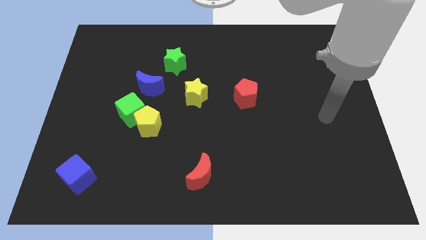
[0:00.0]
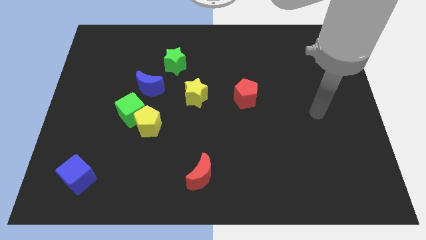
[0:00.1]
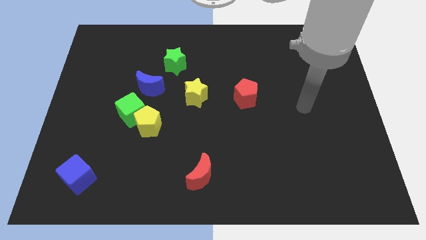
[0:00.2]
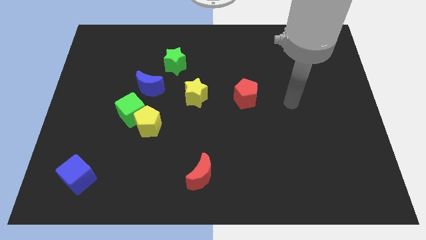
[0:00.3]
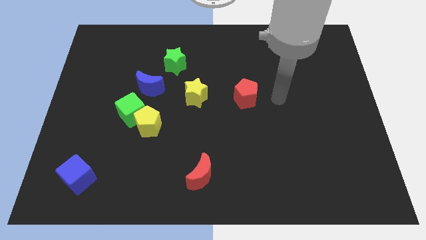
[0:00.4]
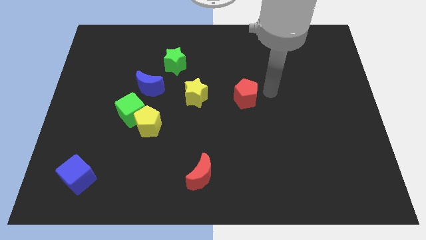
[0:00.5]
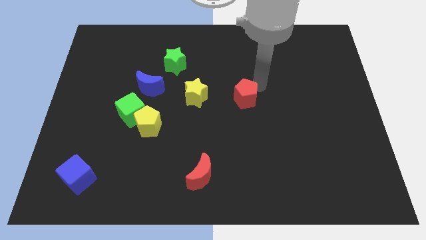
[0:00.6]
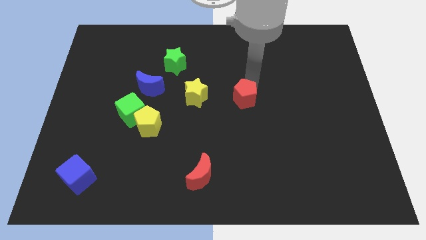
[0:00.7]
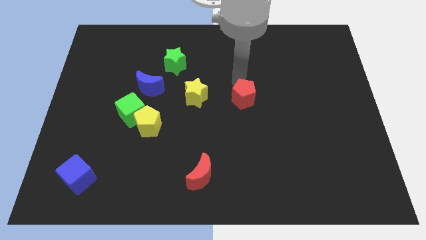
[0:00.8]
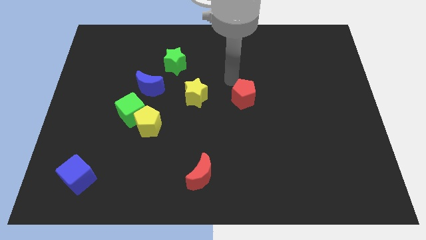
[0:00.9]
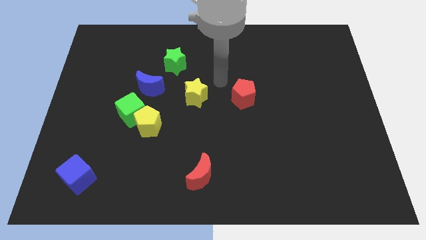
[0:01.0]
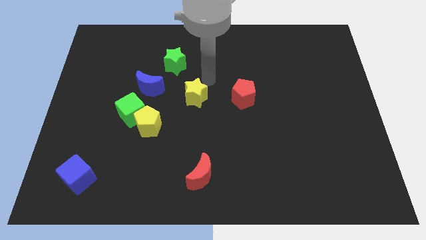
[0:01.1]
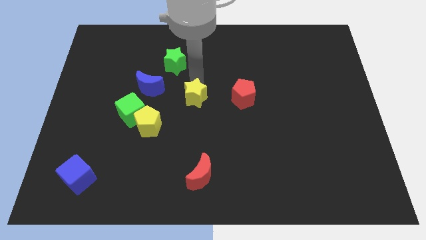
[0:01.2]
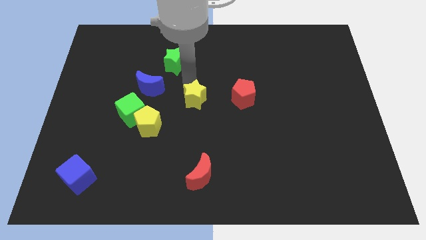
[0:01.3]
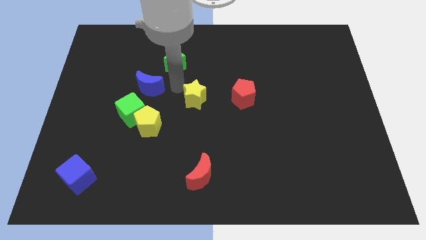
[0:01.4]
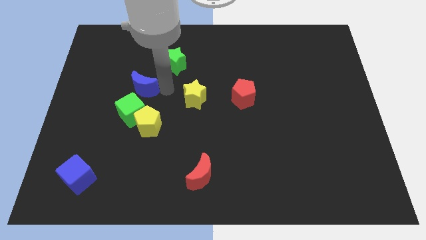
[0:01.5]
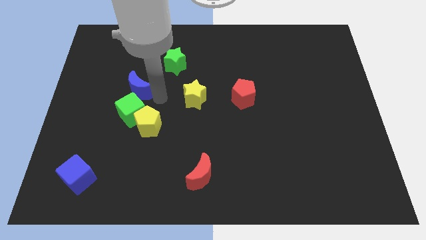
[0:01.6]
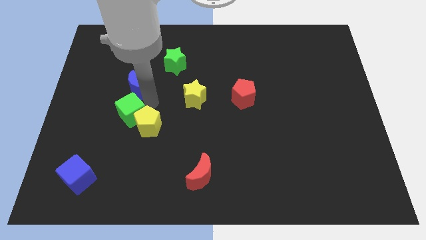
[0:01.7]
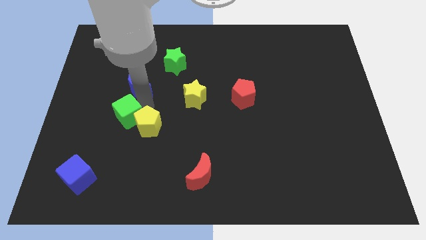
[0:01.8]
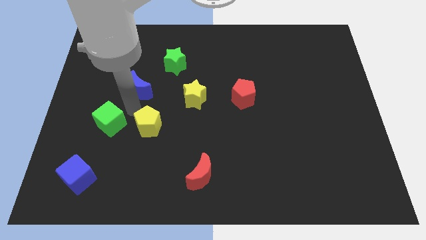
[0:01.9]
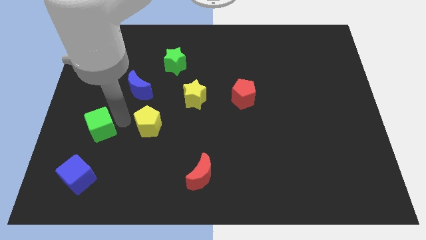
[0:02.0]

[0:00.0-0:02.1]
pull the yellow pentagon apart from the green cube

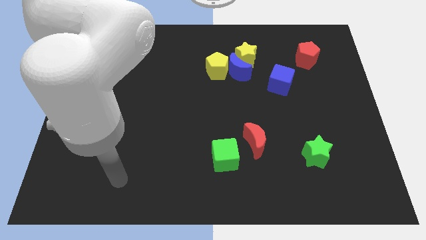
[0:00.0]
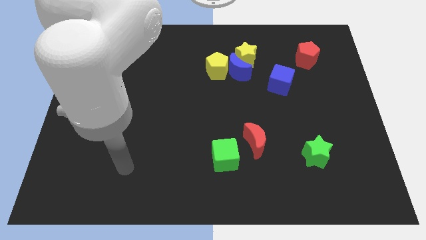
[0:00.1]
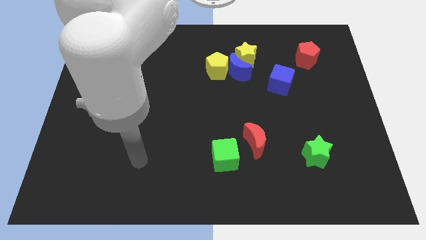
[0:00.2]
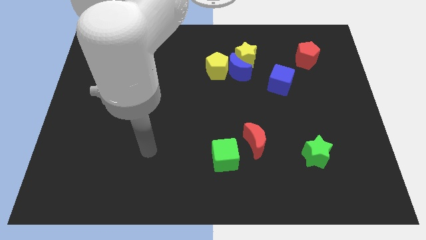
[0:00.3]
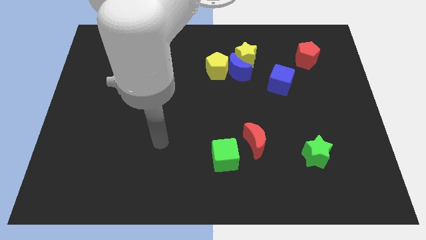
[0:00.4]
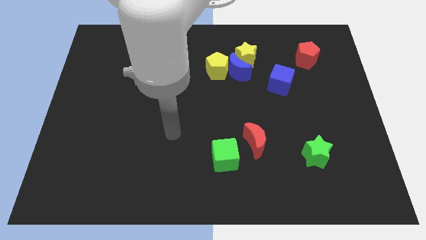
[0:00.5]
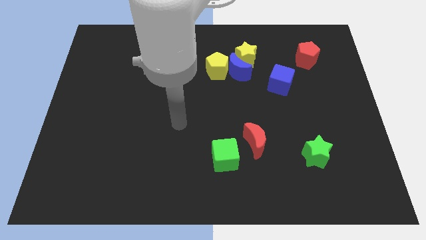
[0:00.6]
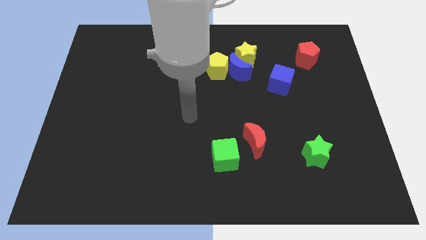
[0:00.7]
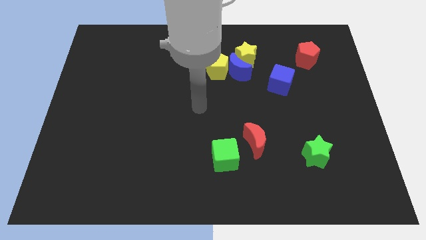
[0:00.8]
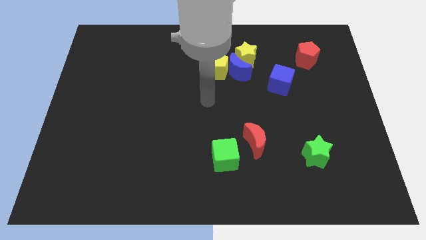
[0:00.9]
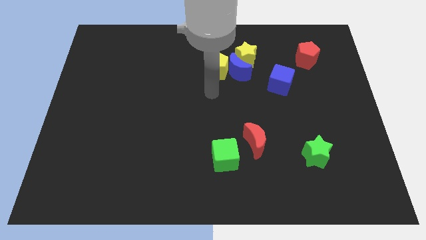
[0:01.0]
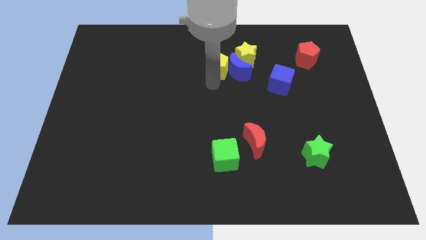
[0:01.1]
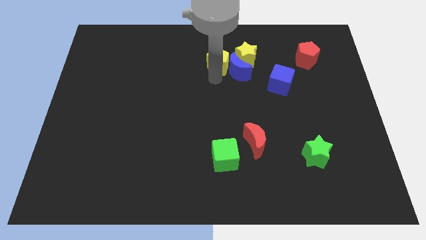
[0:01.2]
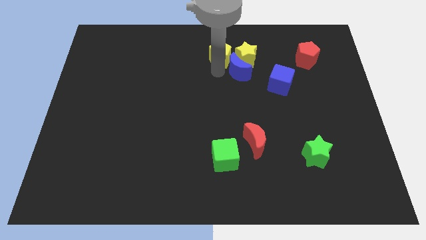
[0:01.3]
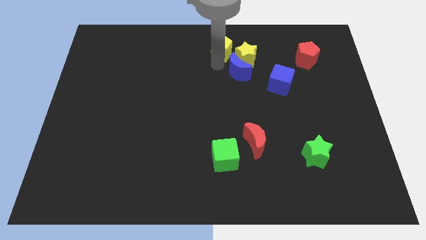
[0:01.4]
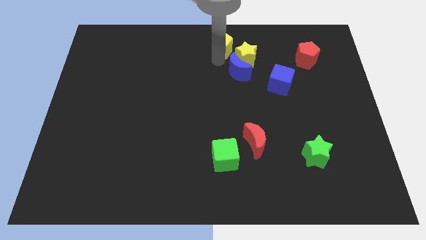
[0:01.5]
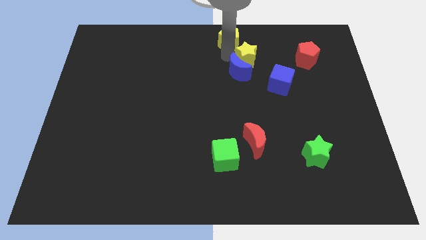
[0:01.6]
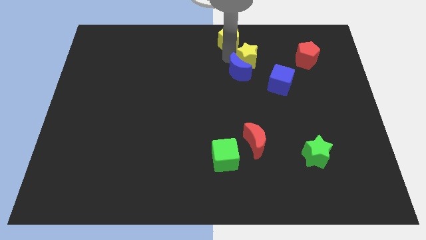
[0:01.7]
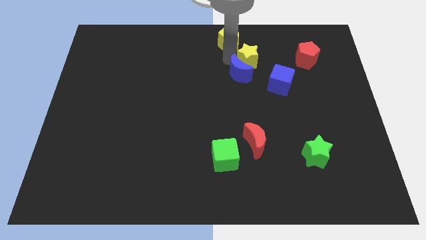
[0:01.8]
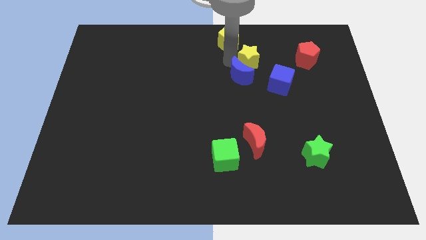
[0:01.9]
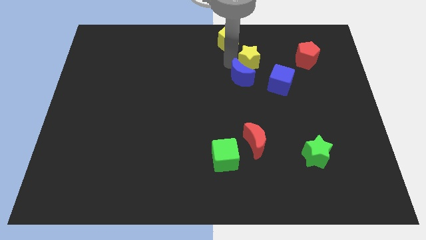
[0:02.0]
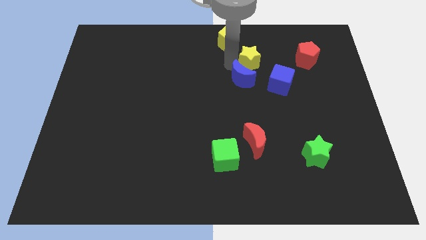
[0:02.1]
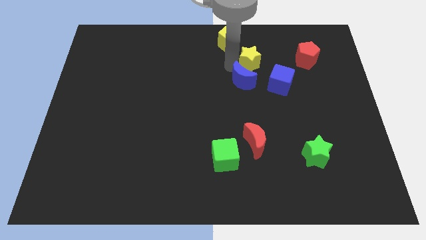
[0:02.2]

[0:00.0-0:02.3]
move the blue moon away from the yellow star and yellow pentagon

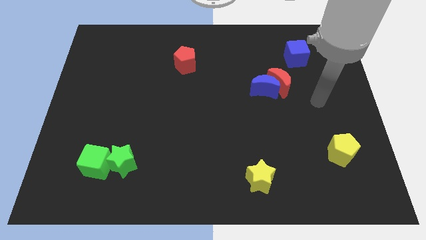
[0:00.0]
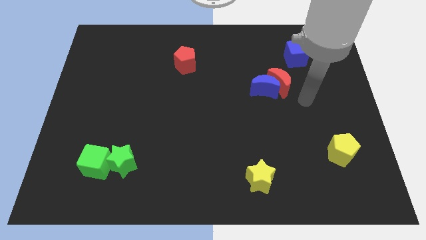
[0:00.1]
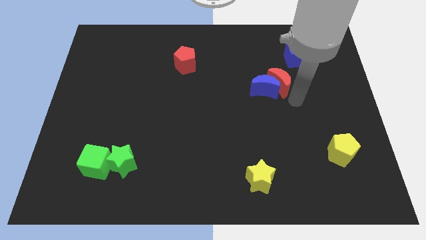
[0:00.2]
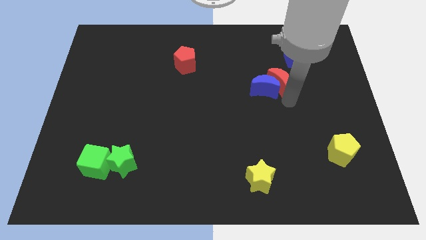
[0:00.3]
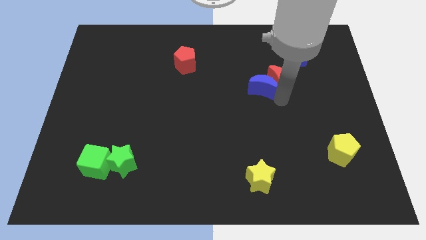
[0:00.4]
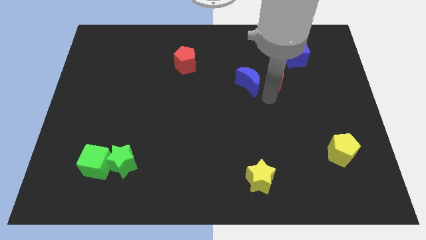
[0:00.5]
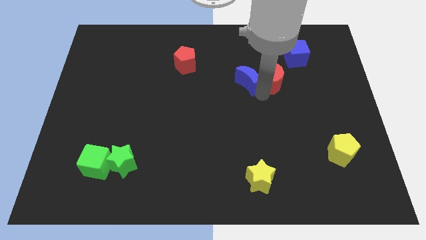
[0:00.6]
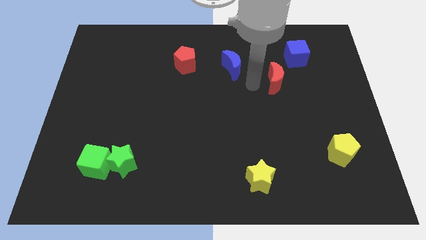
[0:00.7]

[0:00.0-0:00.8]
pull the red moon apart from the blue moon

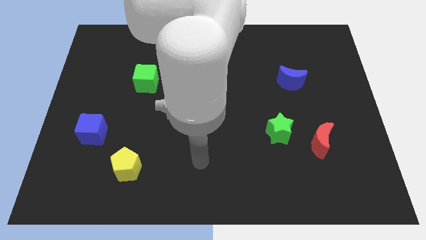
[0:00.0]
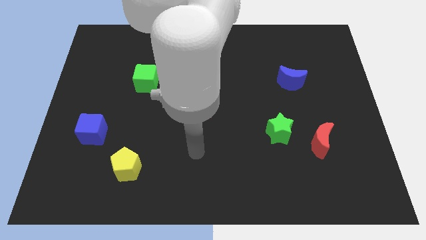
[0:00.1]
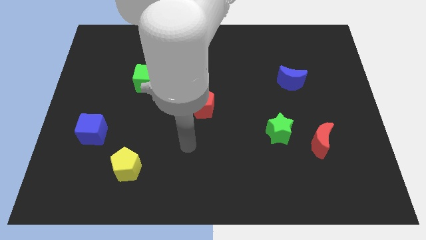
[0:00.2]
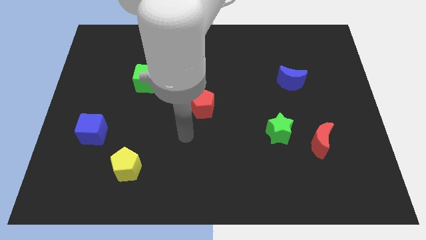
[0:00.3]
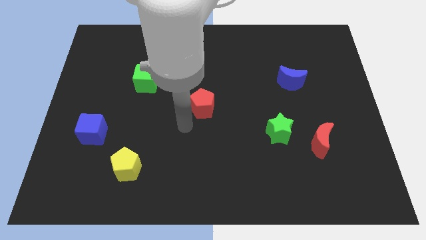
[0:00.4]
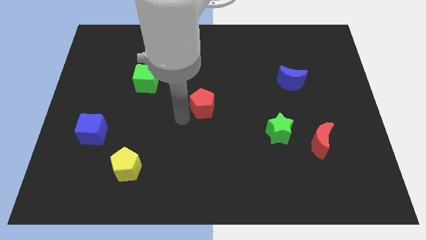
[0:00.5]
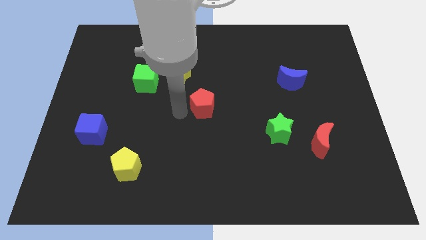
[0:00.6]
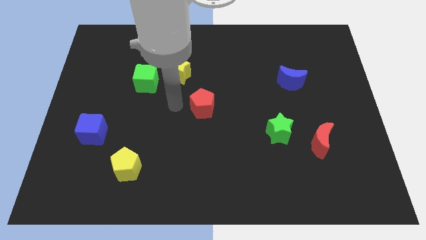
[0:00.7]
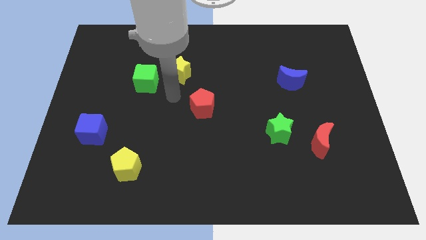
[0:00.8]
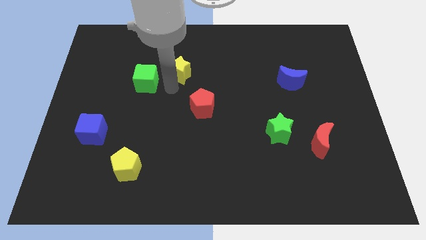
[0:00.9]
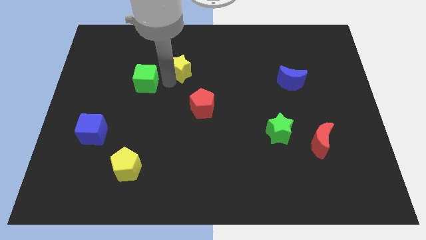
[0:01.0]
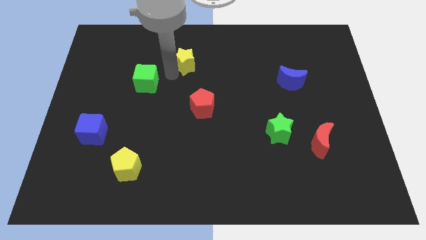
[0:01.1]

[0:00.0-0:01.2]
pull the green cube apart from the yellow star

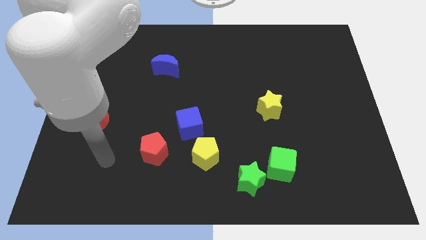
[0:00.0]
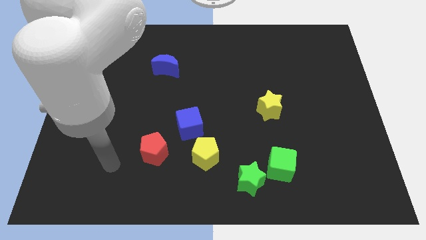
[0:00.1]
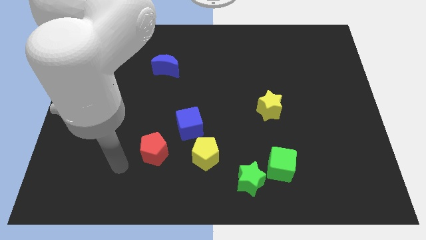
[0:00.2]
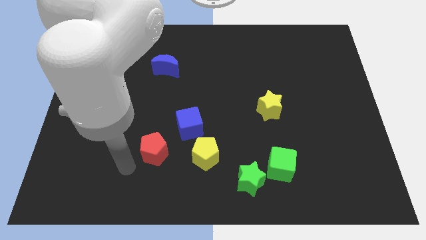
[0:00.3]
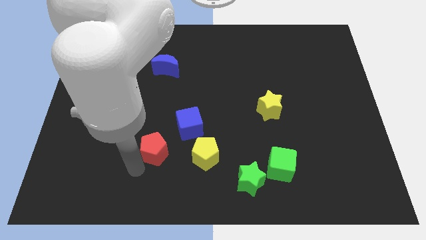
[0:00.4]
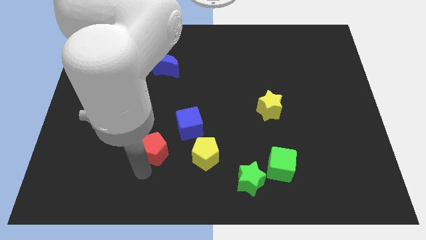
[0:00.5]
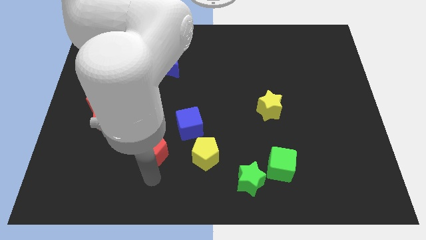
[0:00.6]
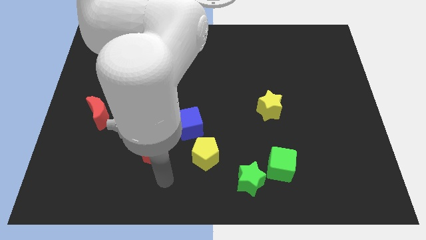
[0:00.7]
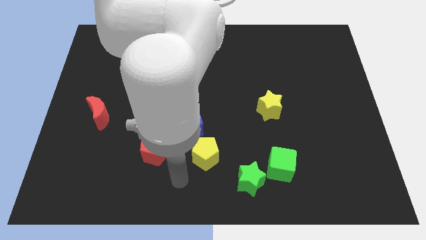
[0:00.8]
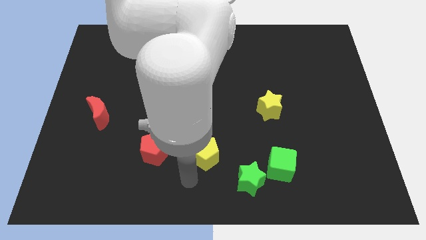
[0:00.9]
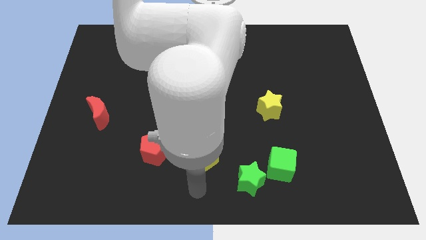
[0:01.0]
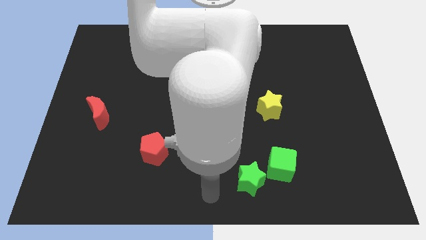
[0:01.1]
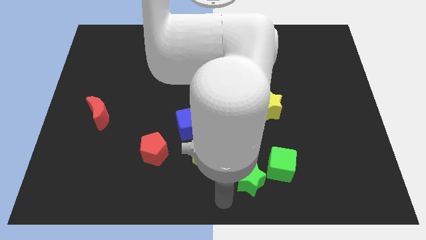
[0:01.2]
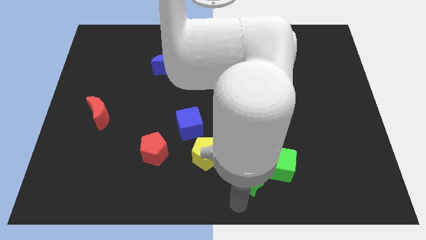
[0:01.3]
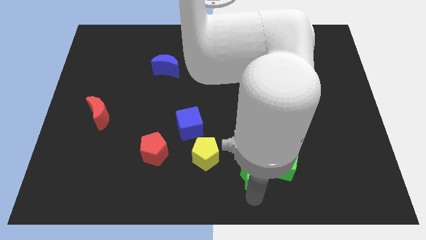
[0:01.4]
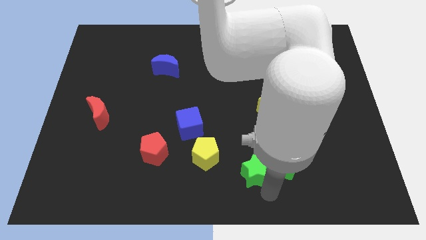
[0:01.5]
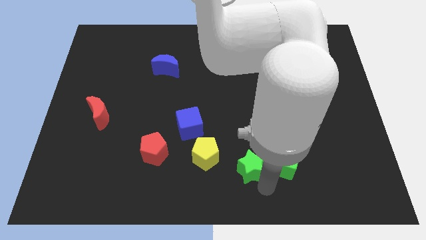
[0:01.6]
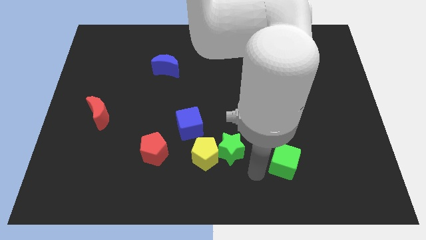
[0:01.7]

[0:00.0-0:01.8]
pull the green cube apart from the green star

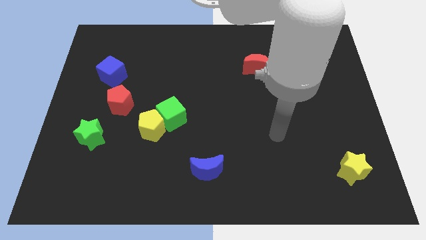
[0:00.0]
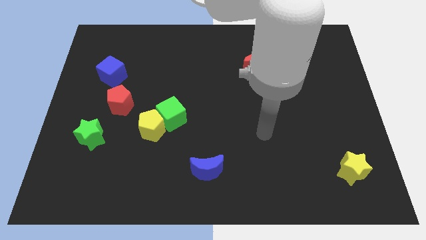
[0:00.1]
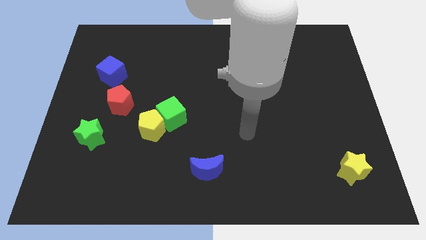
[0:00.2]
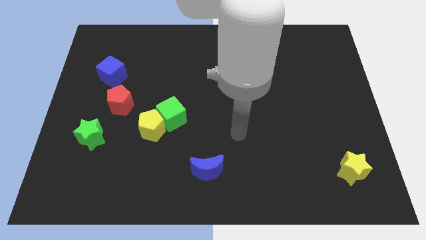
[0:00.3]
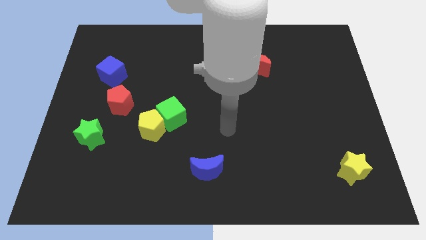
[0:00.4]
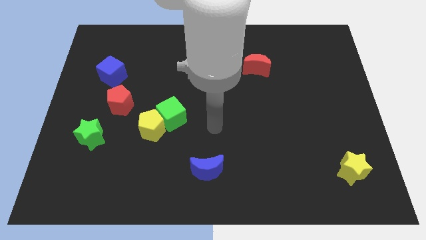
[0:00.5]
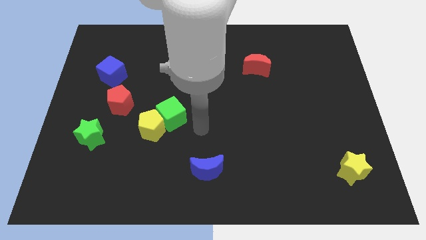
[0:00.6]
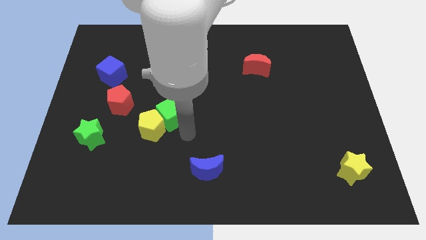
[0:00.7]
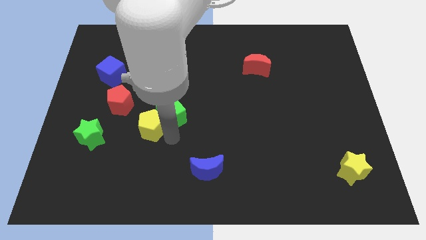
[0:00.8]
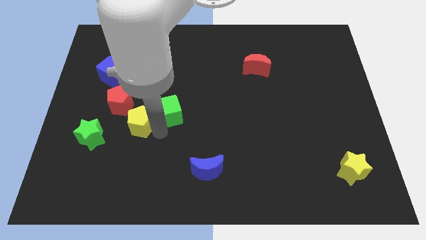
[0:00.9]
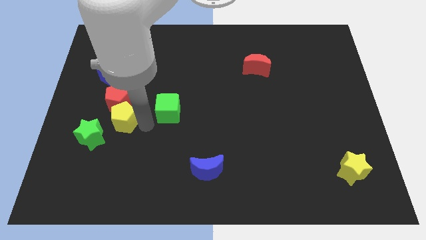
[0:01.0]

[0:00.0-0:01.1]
move the green cube away from the yellow pentagon
